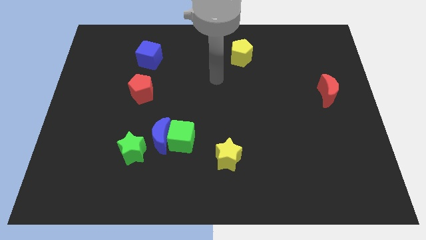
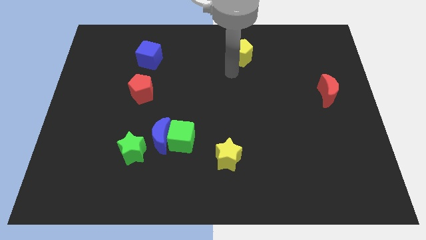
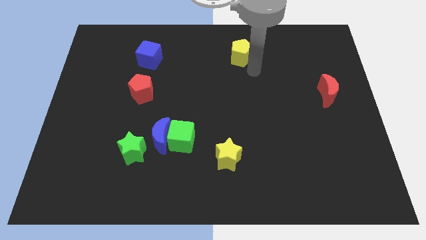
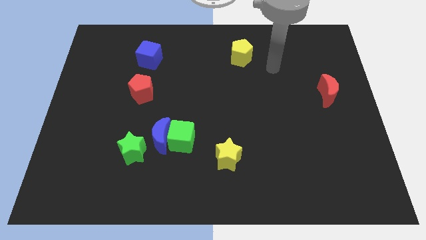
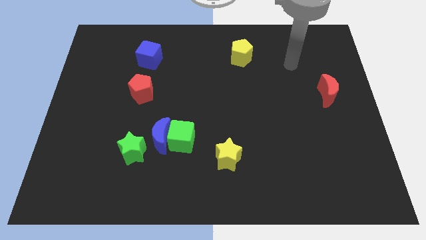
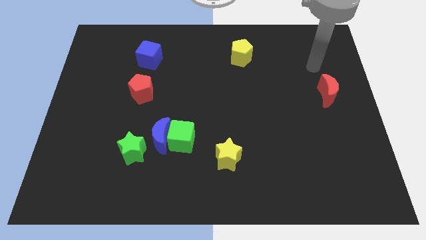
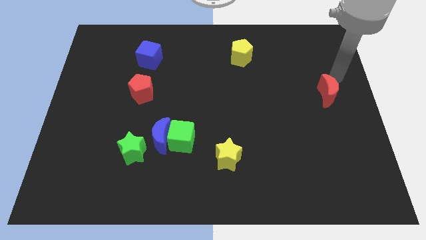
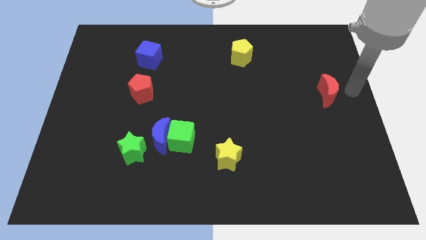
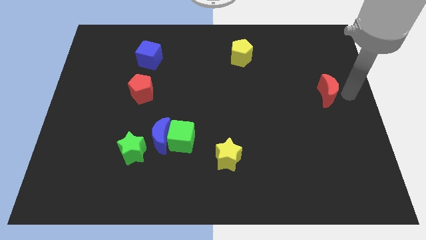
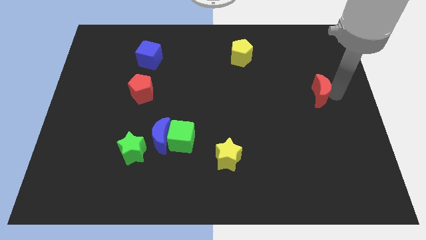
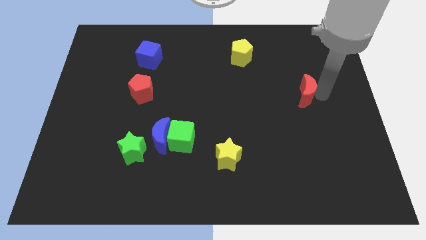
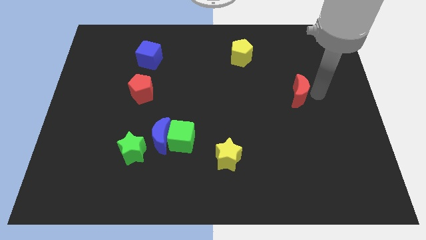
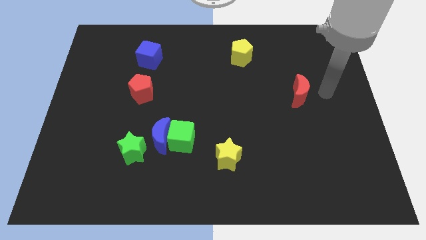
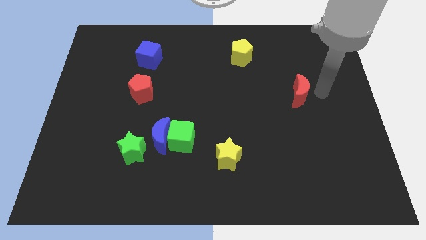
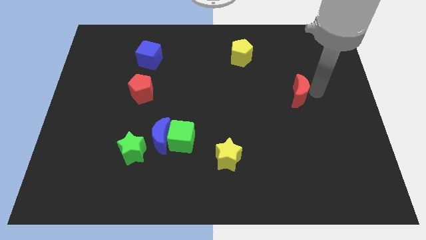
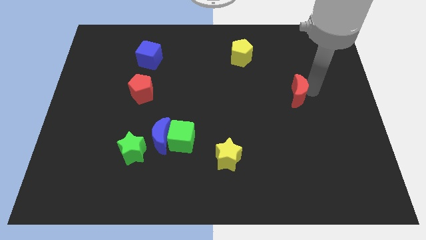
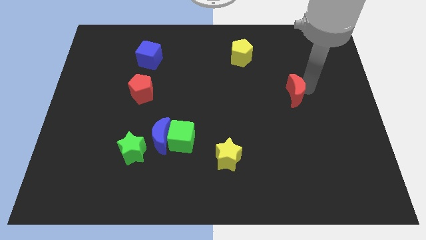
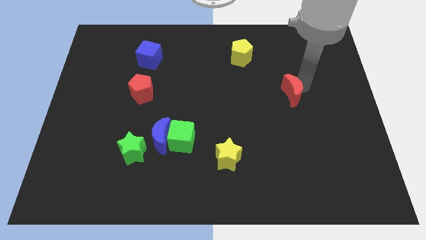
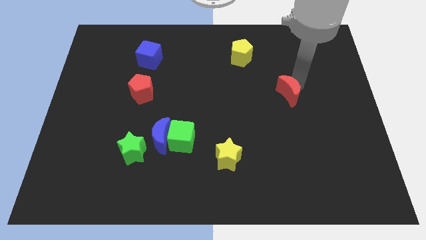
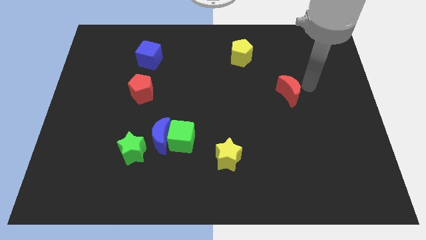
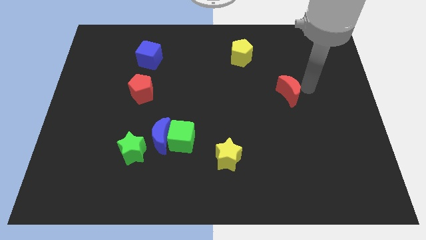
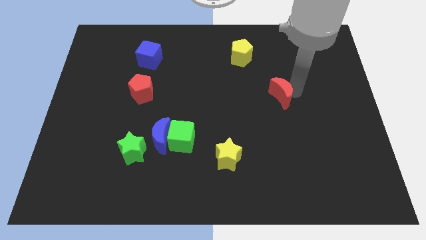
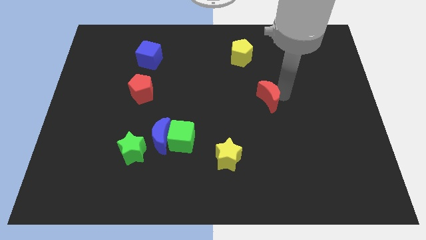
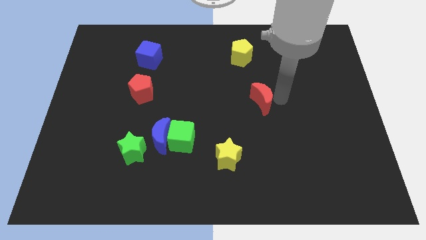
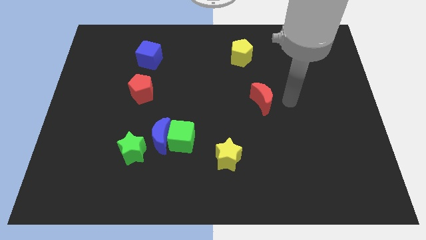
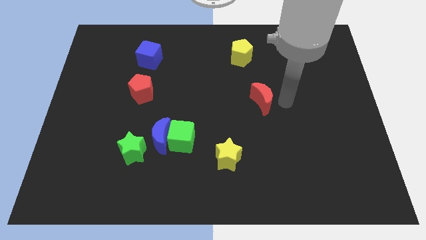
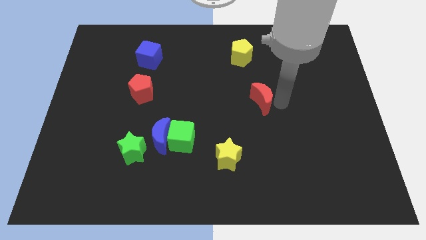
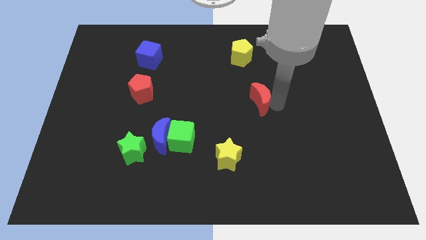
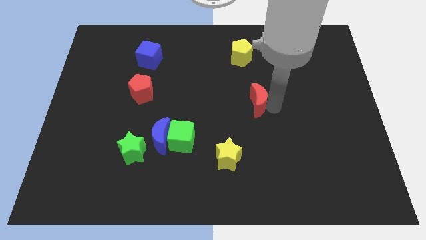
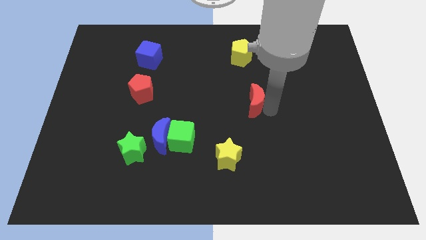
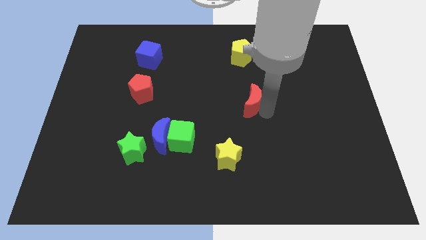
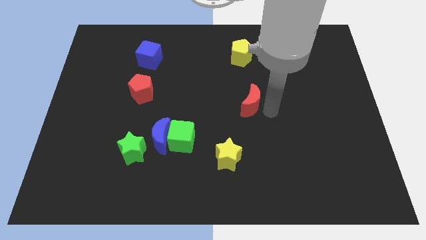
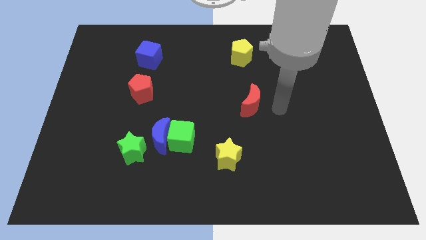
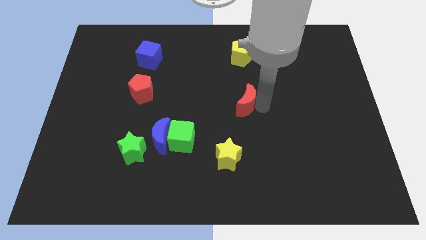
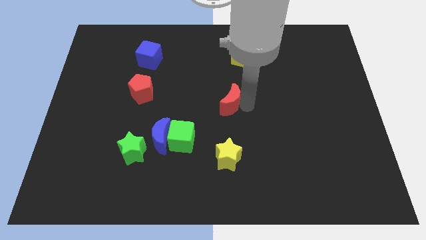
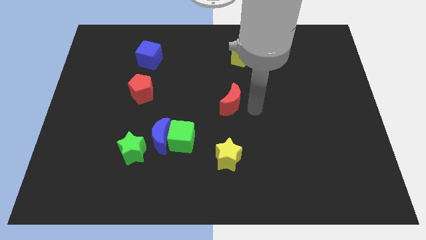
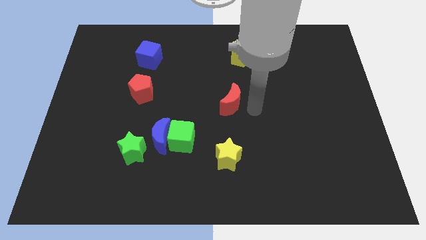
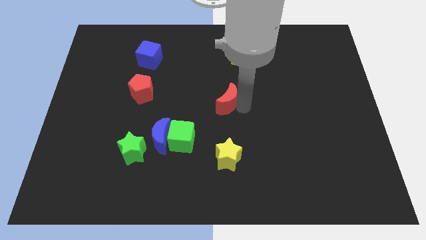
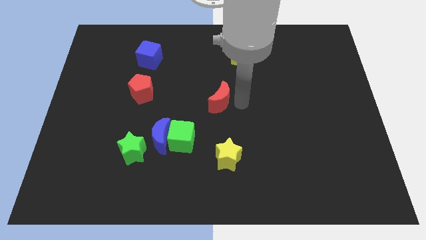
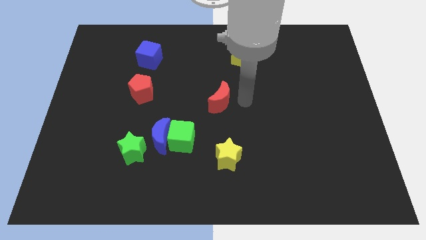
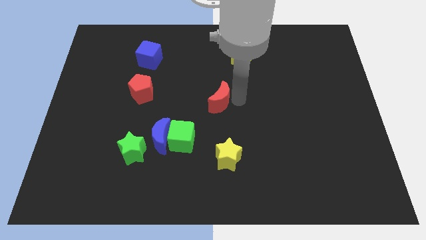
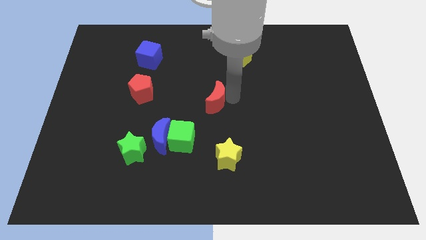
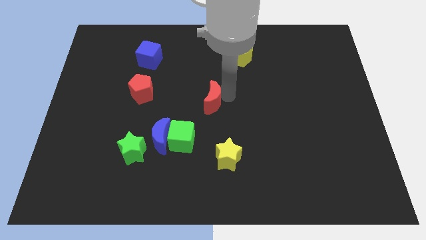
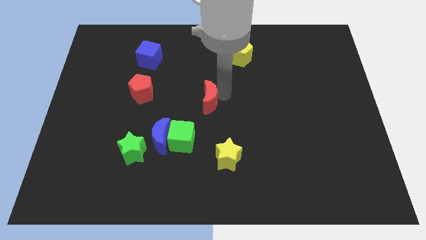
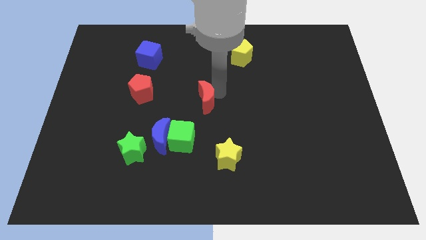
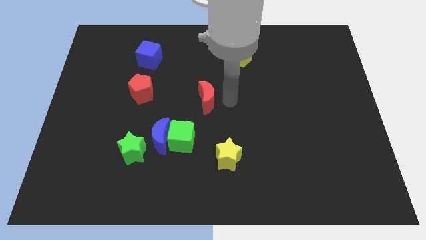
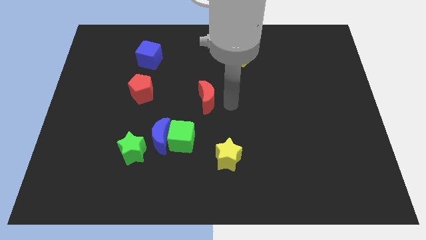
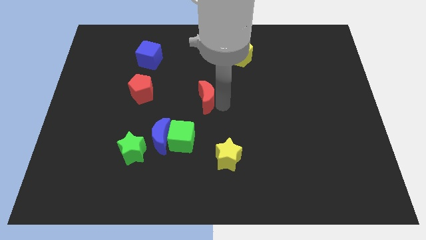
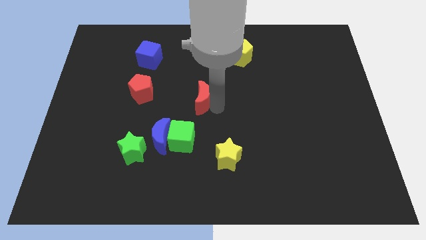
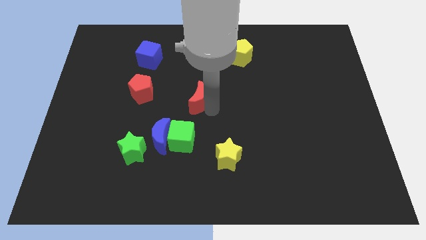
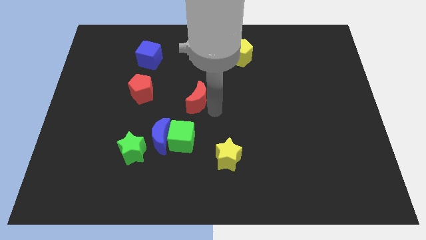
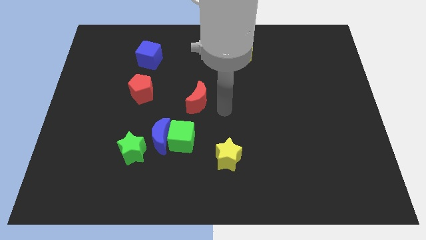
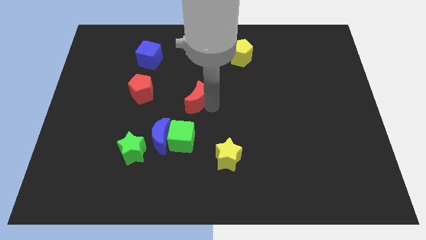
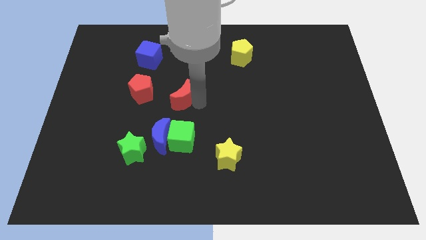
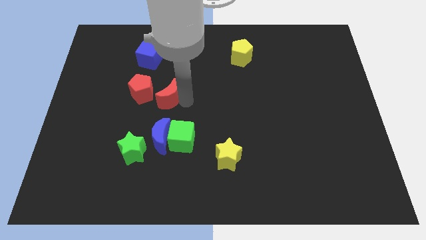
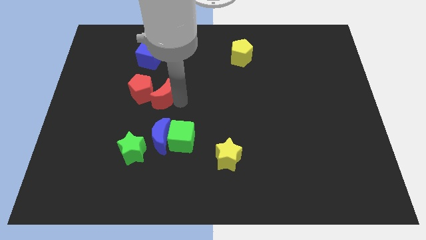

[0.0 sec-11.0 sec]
push the red moon to the red pentagon

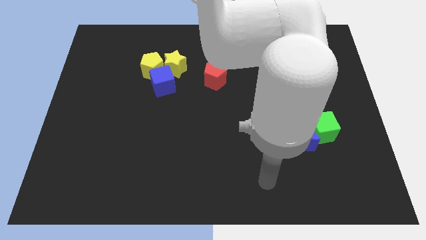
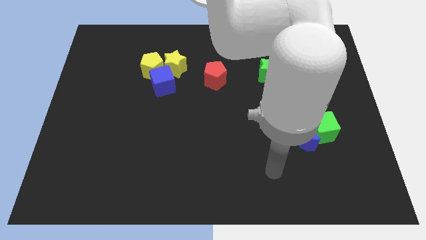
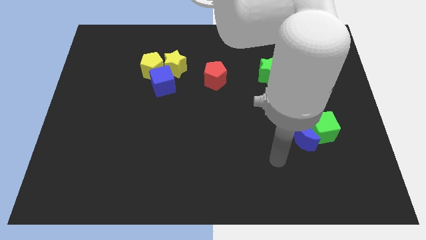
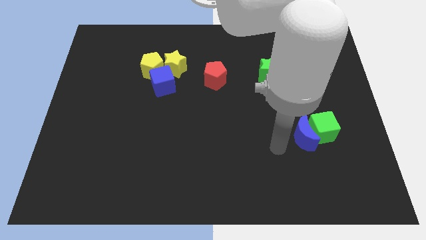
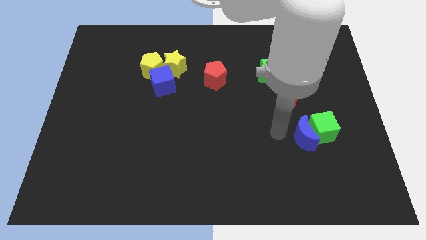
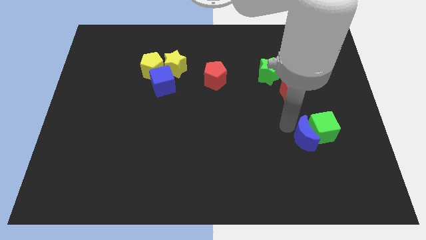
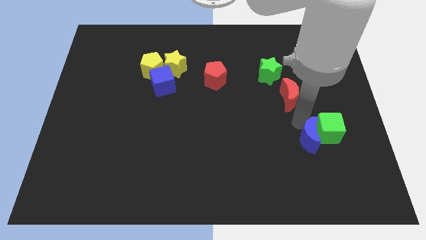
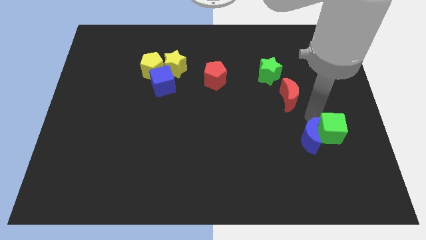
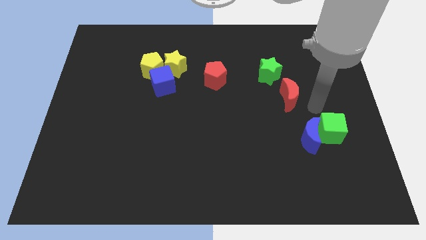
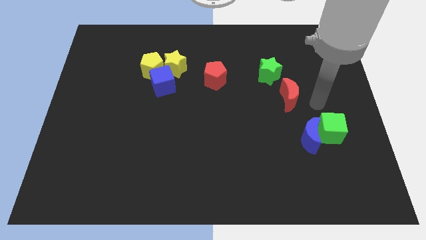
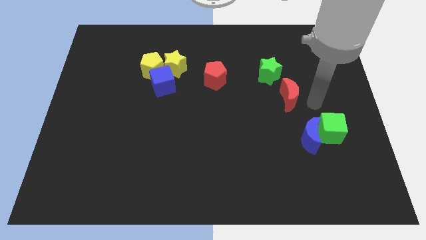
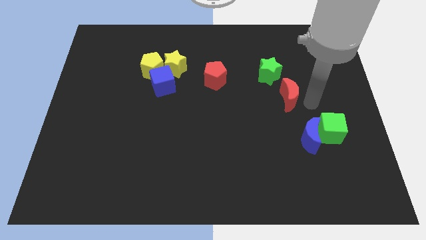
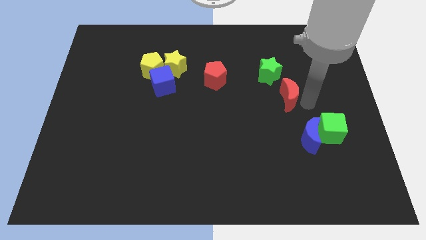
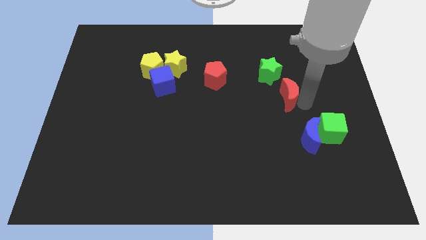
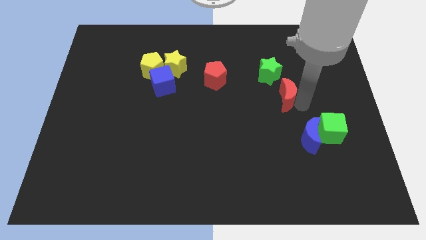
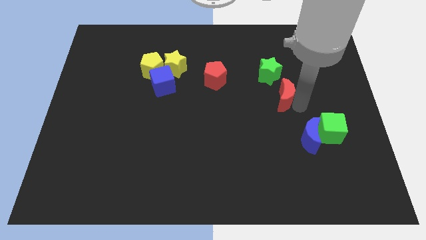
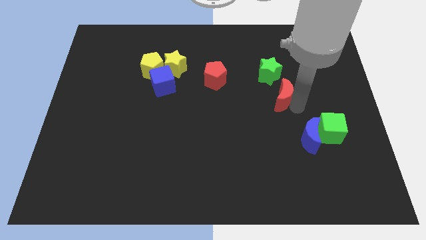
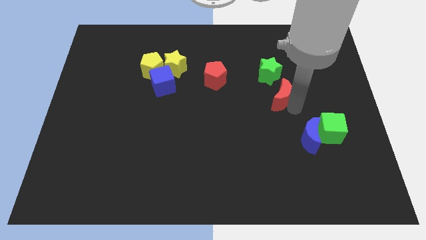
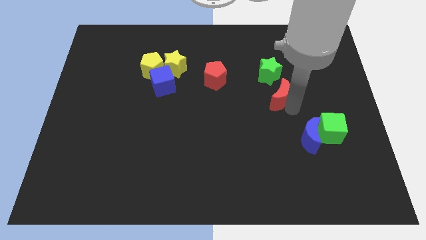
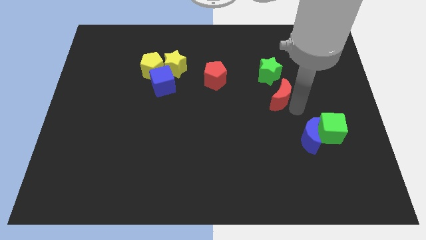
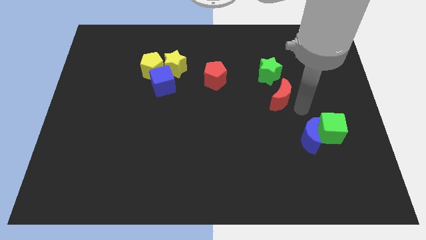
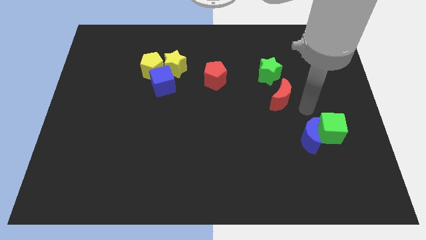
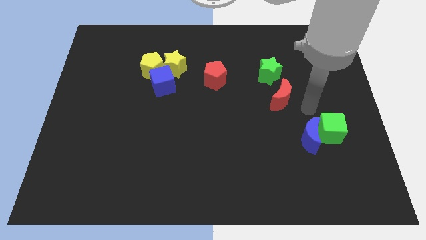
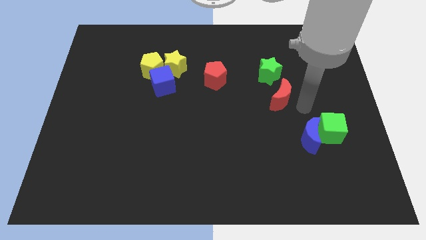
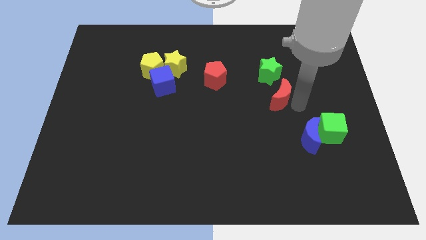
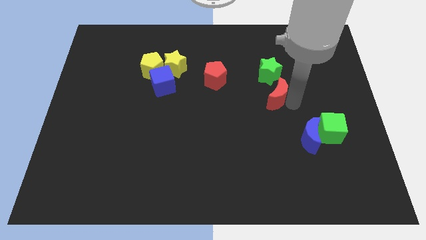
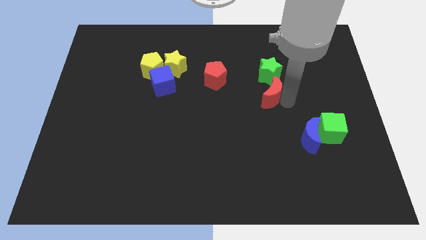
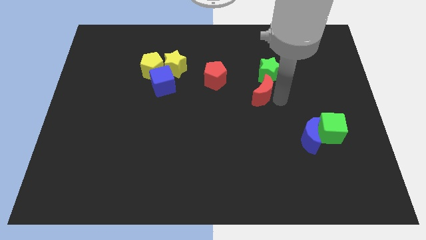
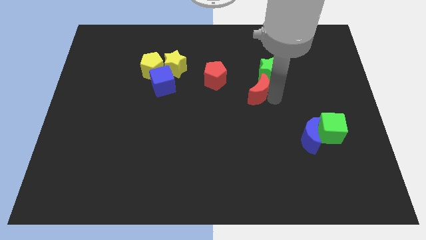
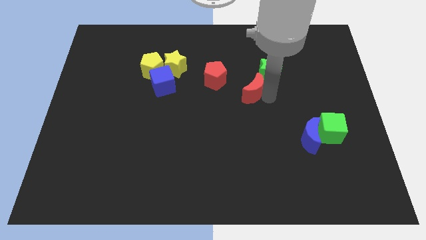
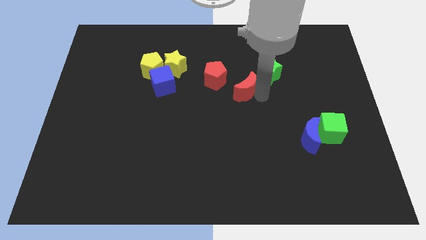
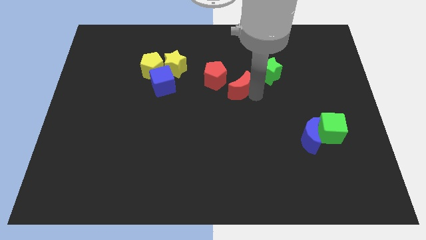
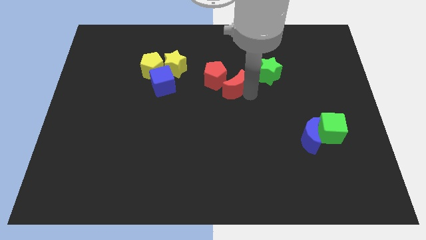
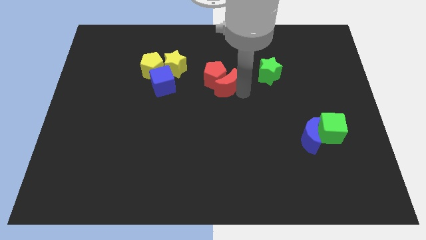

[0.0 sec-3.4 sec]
move the red moon close to the red pentagon
